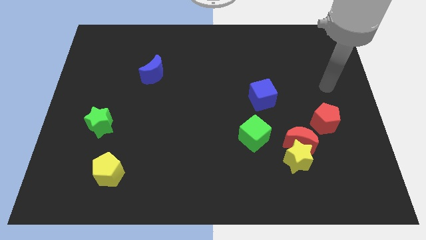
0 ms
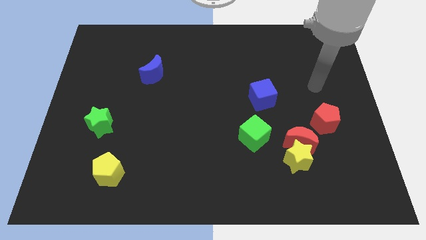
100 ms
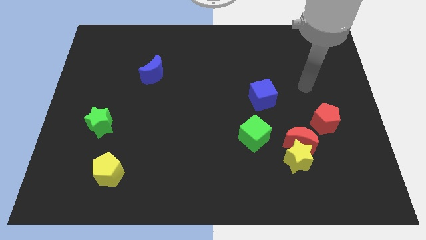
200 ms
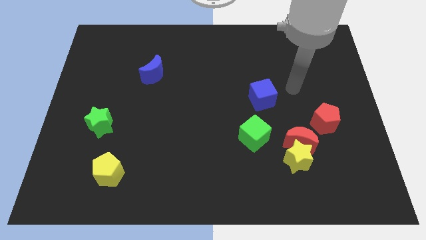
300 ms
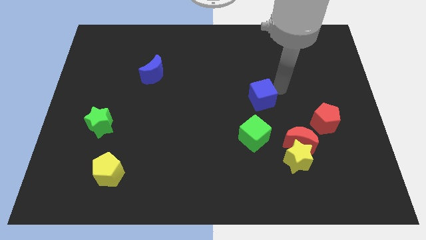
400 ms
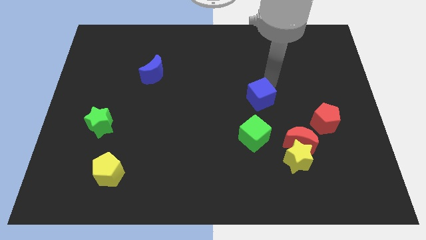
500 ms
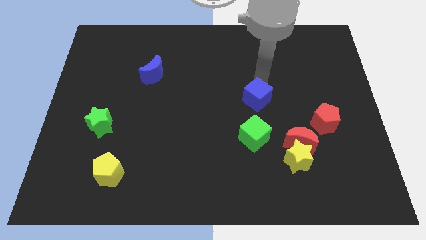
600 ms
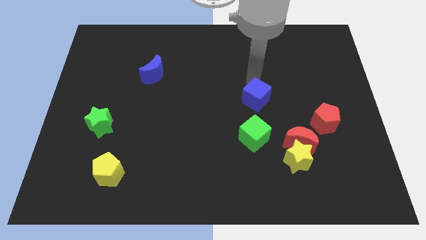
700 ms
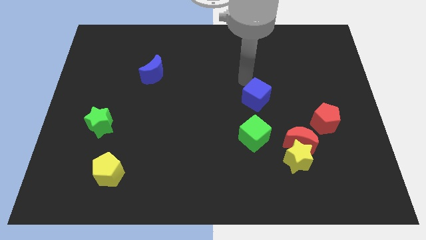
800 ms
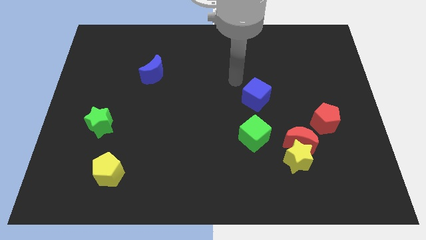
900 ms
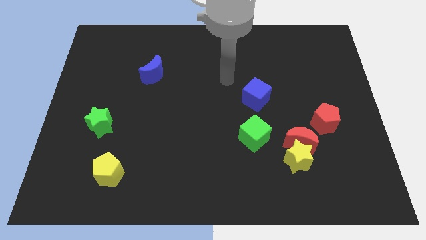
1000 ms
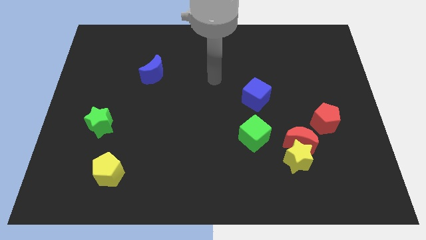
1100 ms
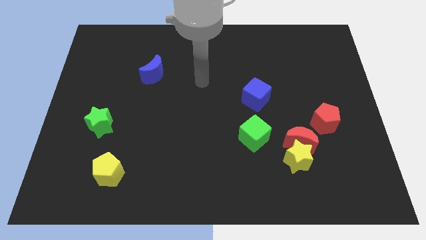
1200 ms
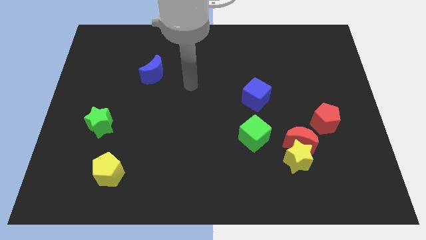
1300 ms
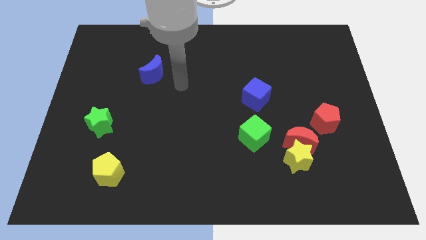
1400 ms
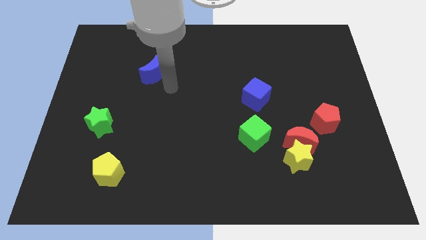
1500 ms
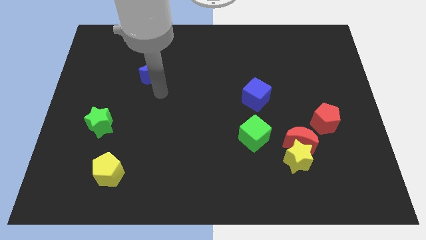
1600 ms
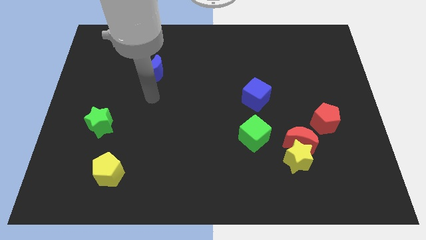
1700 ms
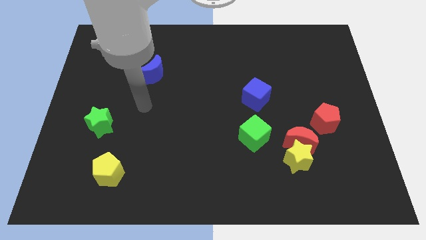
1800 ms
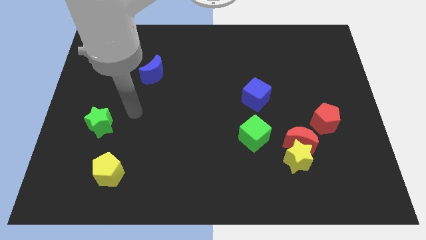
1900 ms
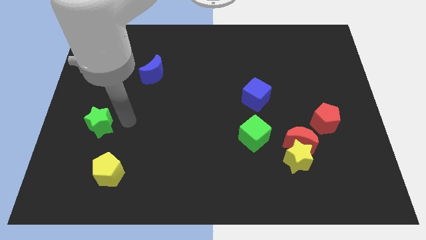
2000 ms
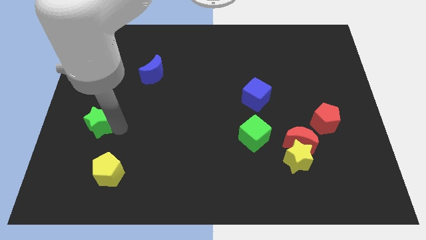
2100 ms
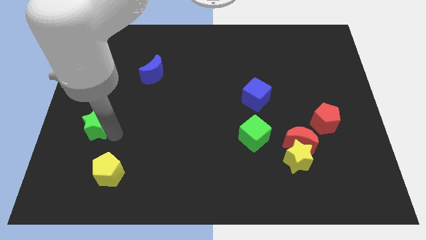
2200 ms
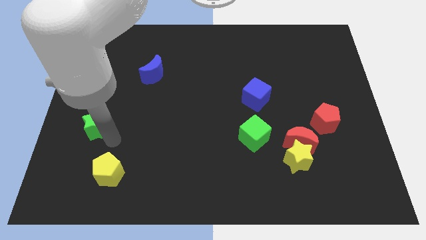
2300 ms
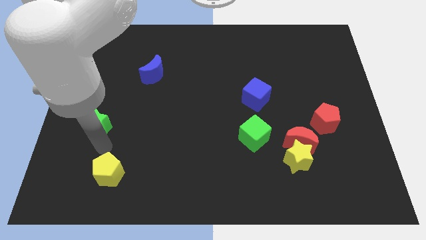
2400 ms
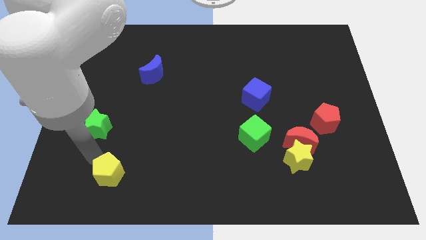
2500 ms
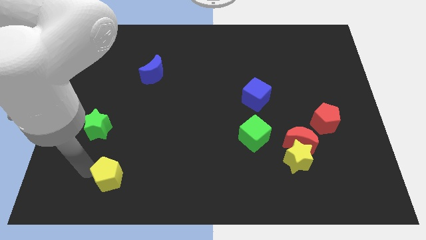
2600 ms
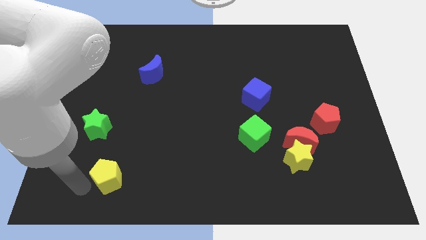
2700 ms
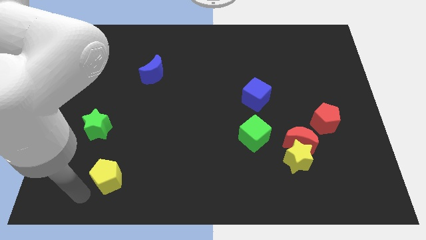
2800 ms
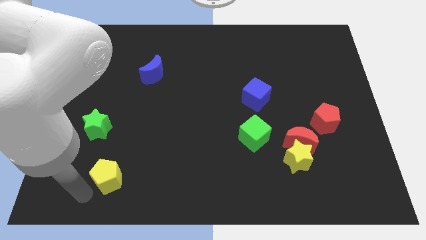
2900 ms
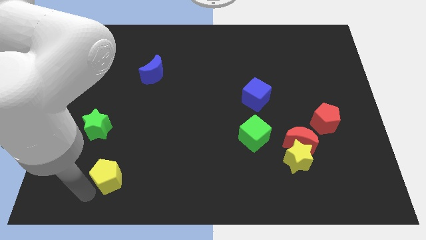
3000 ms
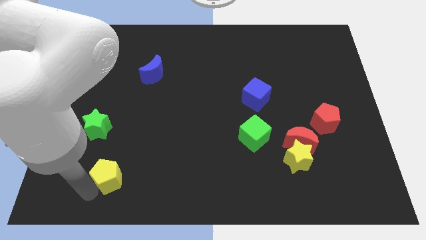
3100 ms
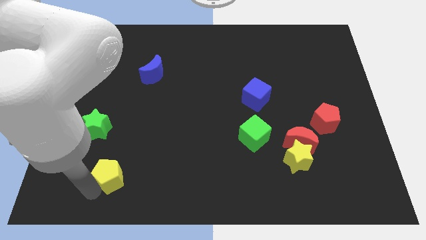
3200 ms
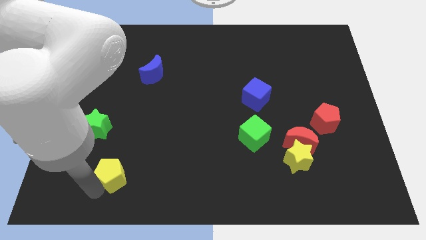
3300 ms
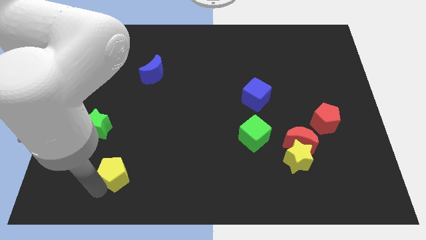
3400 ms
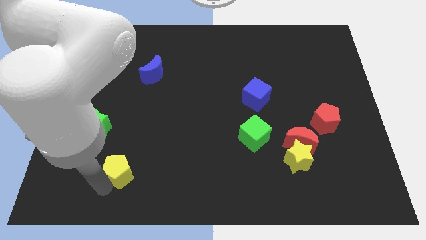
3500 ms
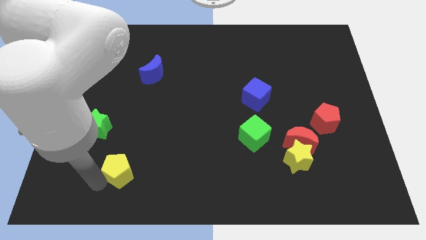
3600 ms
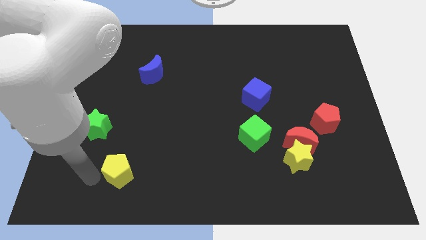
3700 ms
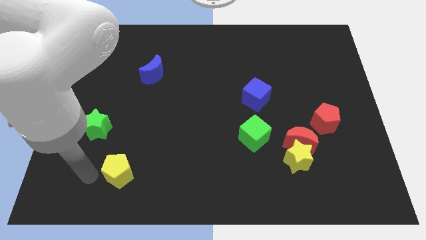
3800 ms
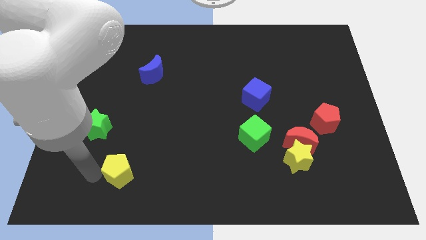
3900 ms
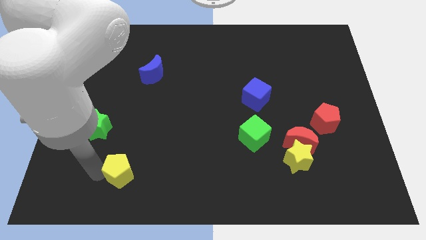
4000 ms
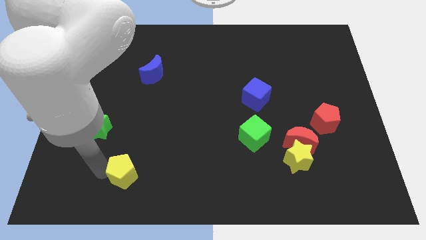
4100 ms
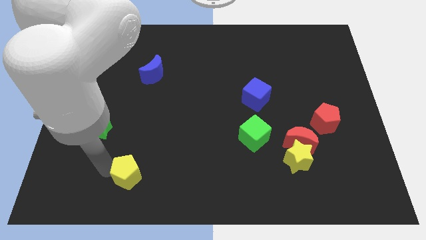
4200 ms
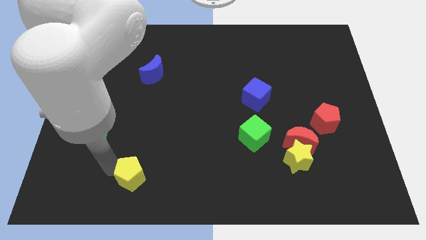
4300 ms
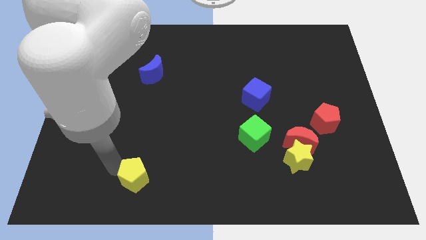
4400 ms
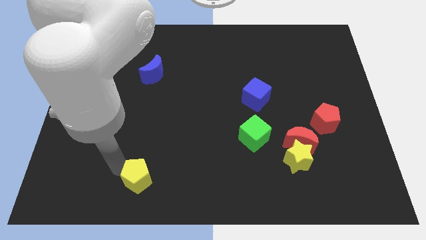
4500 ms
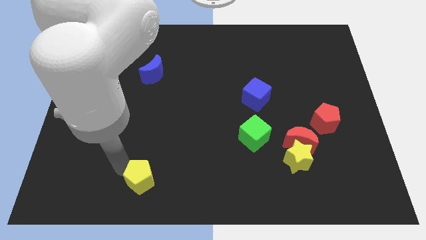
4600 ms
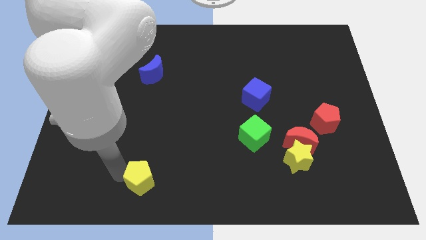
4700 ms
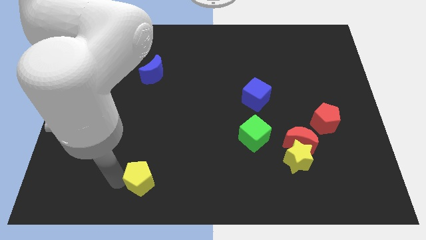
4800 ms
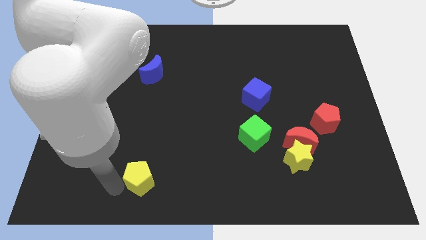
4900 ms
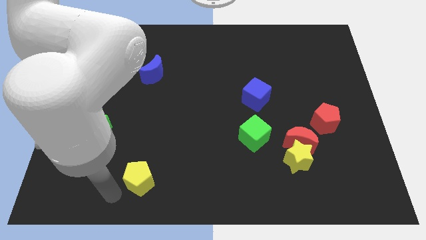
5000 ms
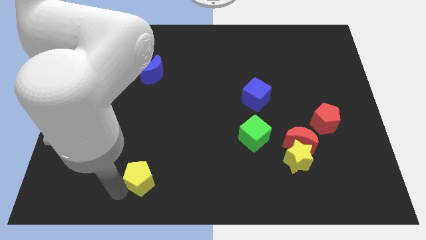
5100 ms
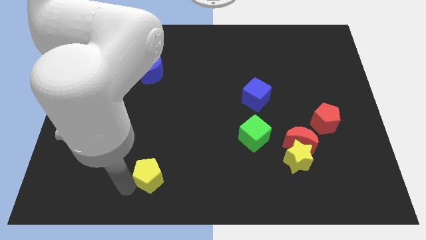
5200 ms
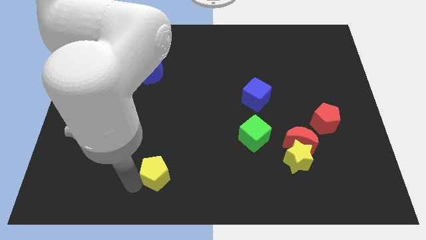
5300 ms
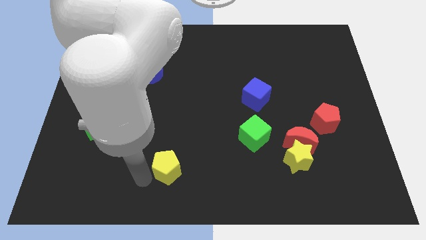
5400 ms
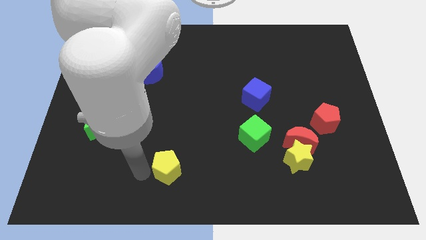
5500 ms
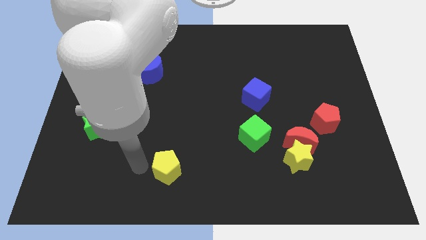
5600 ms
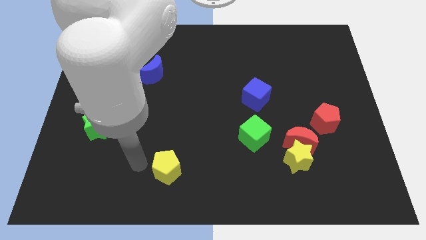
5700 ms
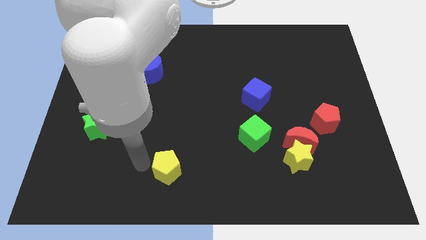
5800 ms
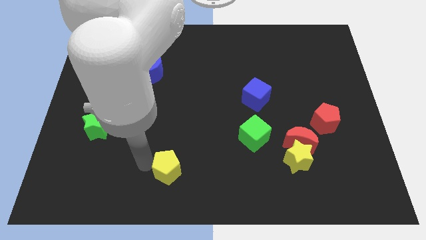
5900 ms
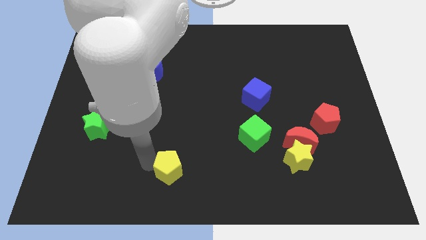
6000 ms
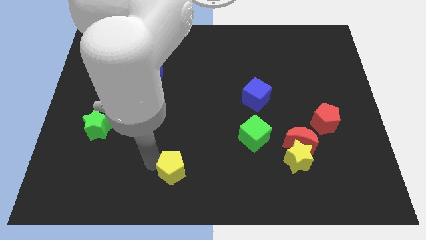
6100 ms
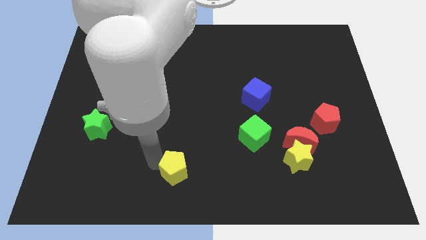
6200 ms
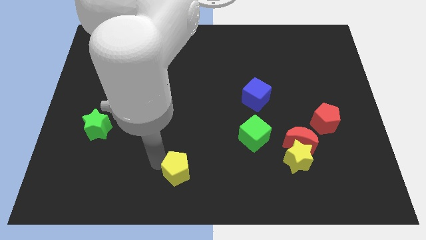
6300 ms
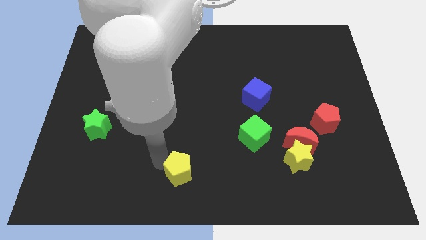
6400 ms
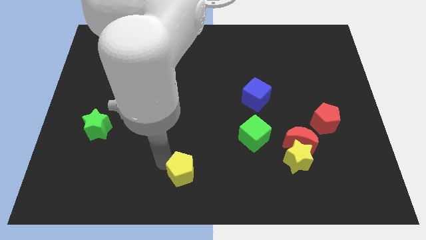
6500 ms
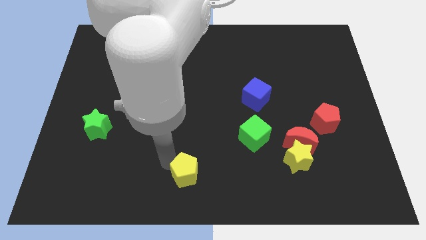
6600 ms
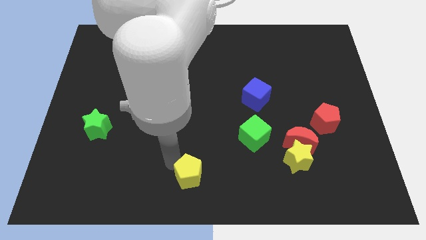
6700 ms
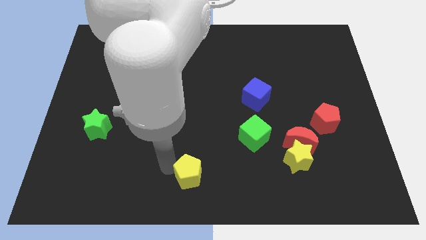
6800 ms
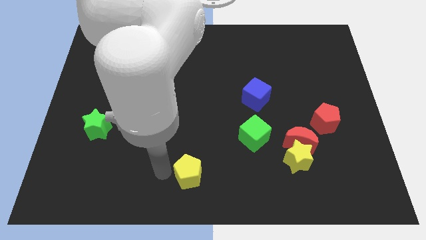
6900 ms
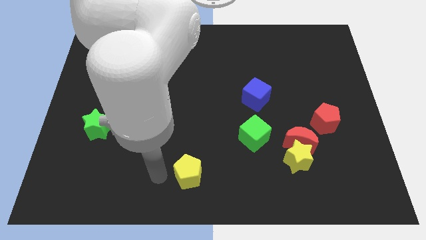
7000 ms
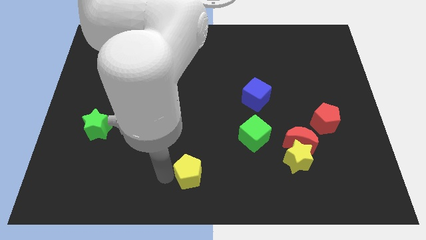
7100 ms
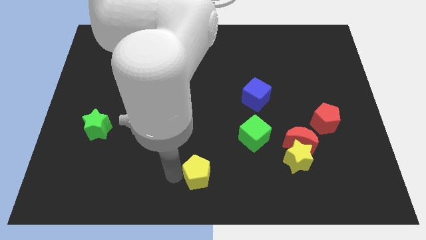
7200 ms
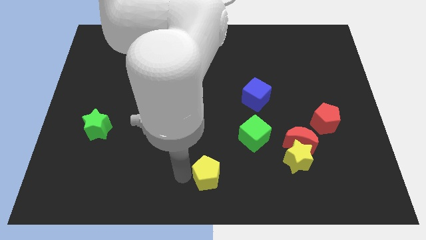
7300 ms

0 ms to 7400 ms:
slide the yellow pentagon right

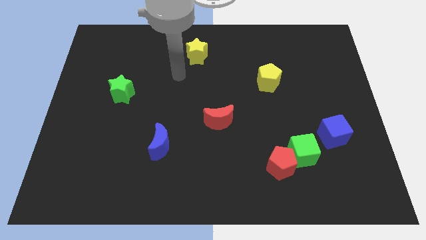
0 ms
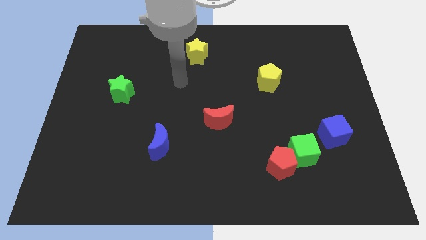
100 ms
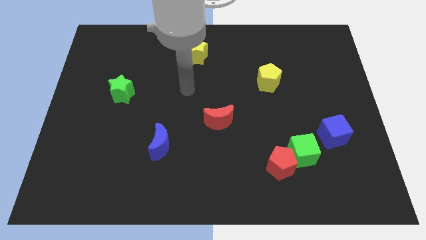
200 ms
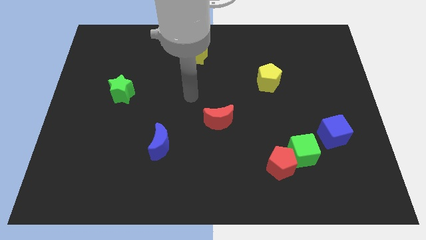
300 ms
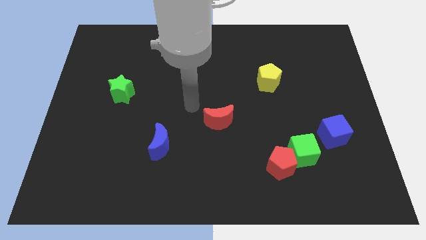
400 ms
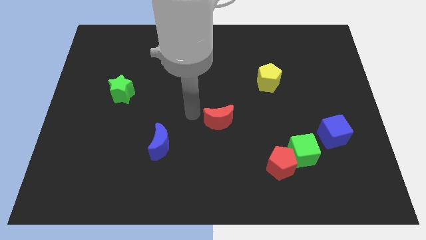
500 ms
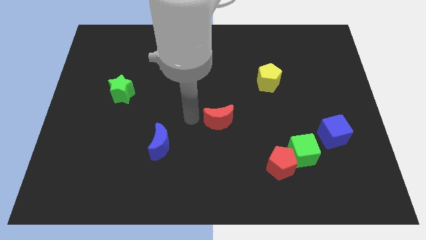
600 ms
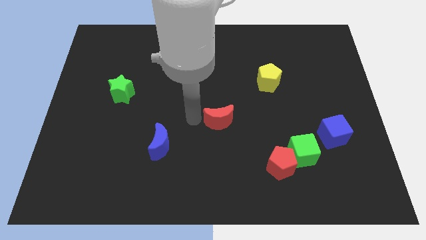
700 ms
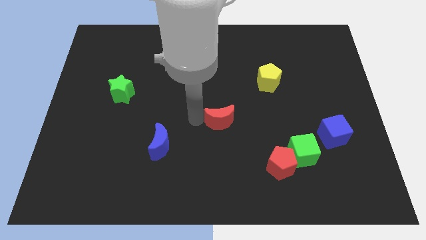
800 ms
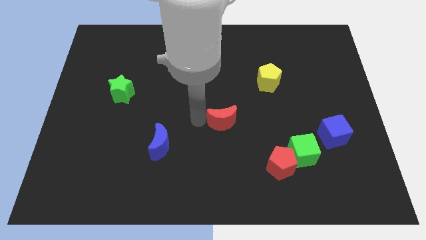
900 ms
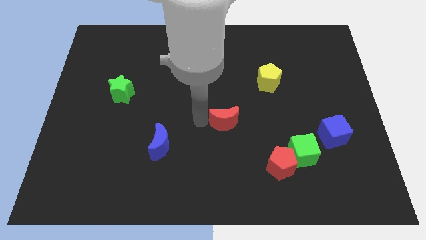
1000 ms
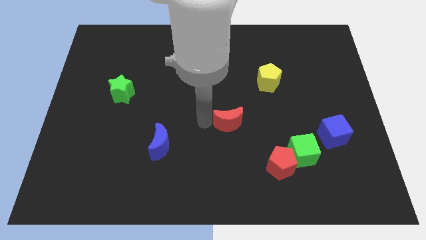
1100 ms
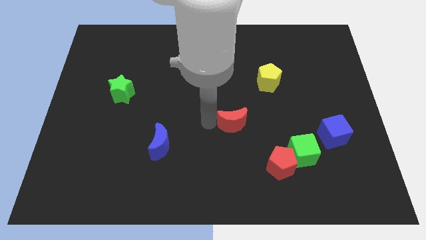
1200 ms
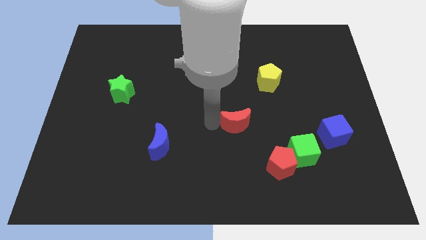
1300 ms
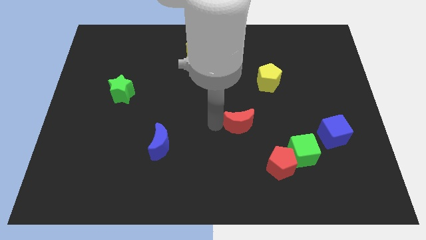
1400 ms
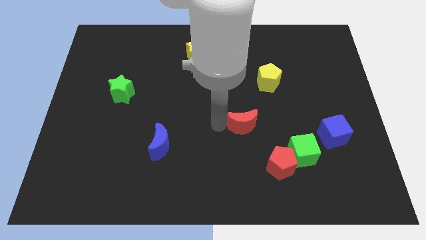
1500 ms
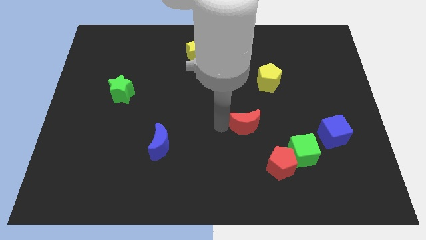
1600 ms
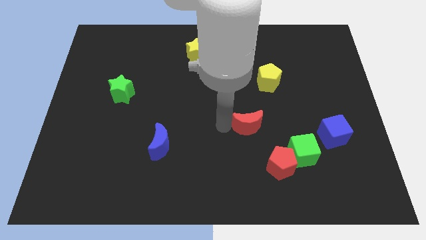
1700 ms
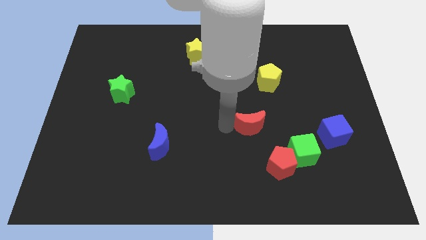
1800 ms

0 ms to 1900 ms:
slide the red moon right a little bit
